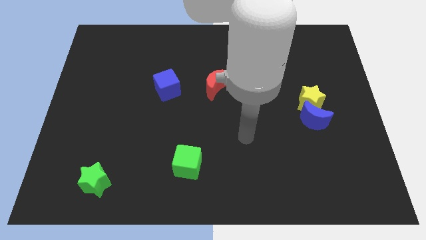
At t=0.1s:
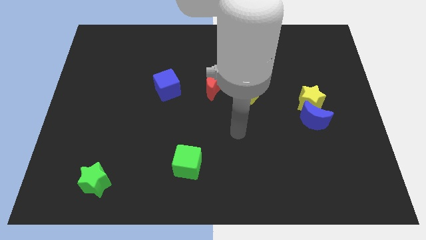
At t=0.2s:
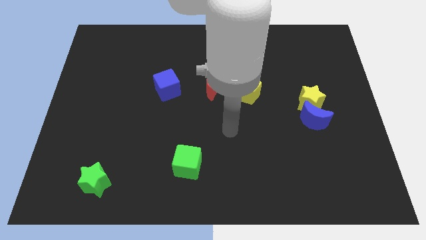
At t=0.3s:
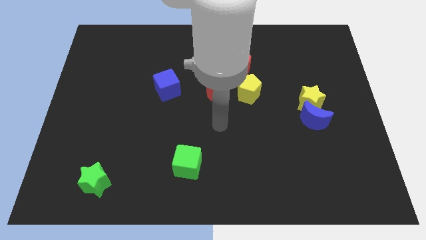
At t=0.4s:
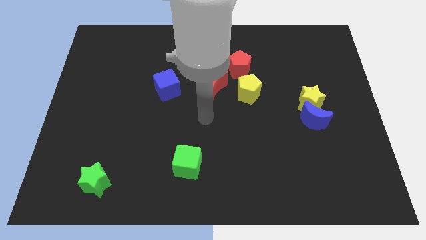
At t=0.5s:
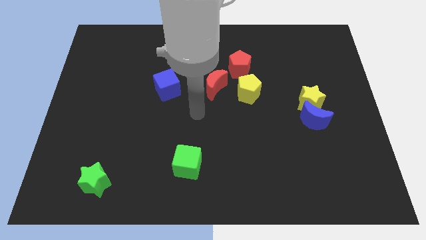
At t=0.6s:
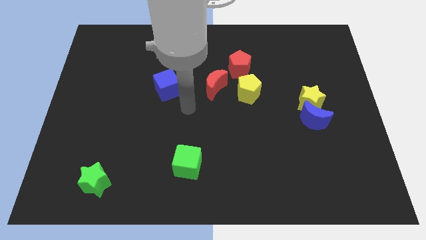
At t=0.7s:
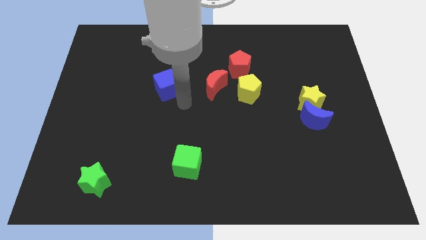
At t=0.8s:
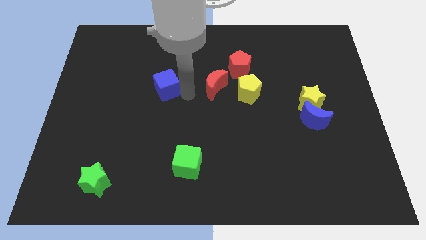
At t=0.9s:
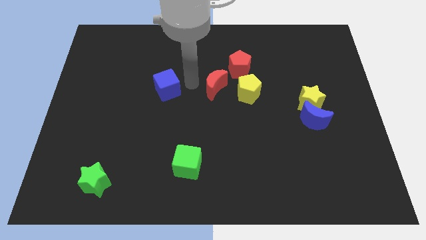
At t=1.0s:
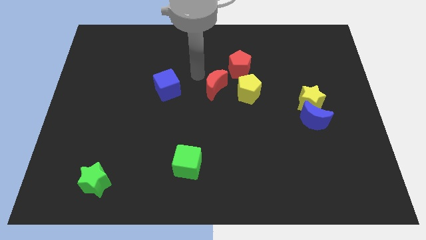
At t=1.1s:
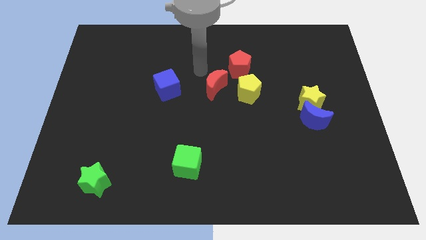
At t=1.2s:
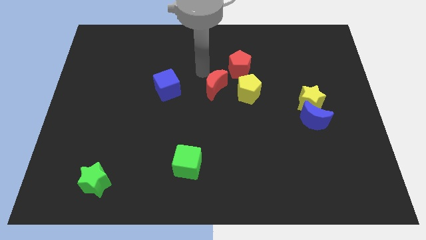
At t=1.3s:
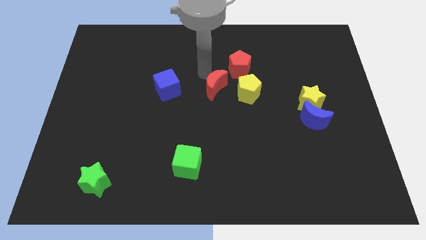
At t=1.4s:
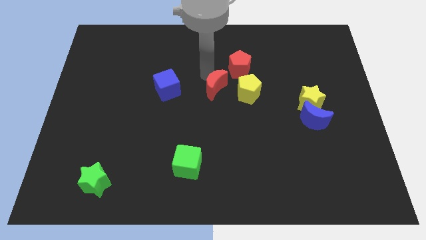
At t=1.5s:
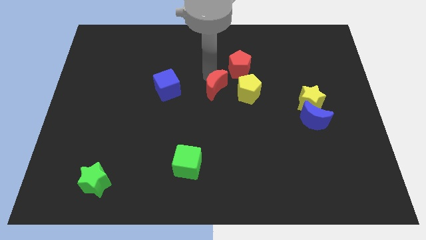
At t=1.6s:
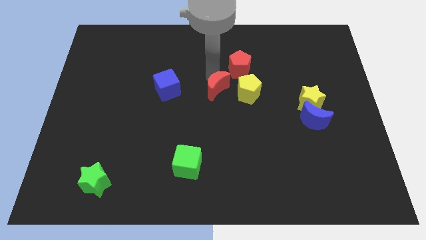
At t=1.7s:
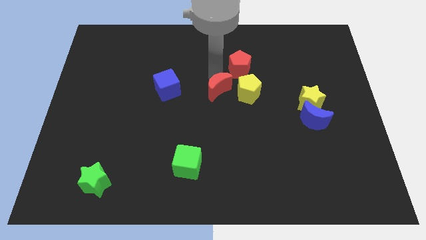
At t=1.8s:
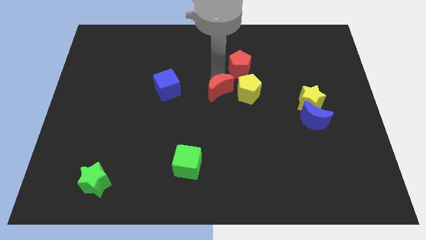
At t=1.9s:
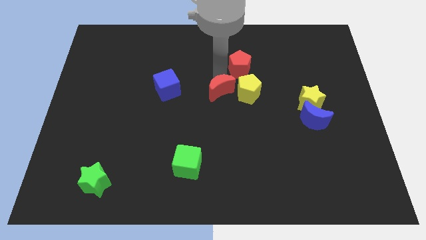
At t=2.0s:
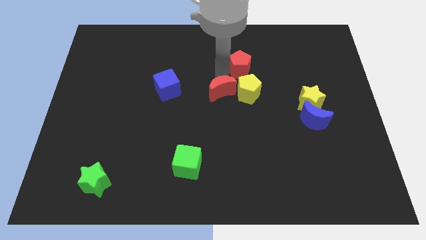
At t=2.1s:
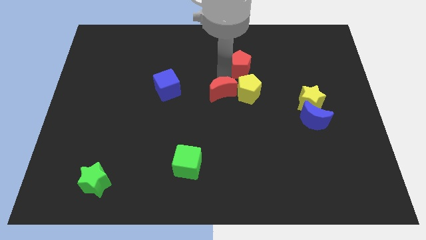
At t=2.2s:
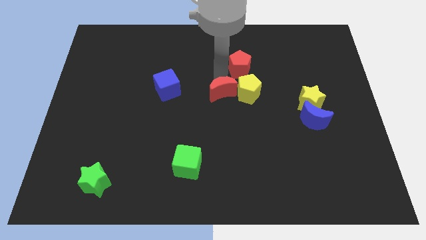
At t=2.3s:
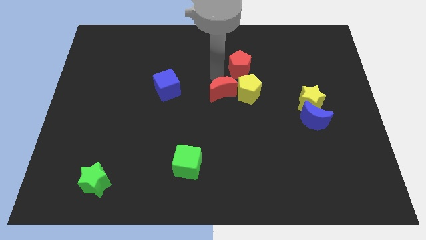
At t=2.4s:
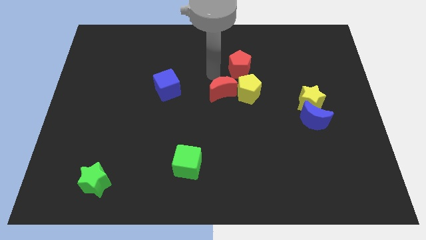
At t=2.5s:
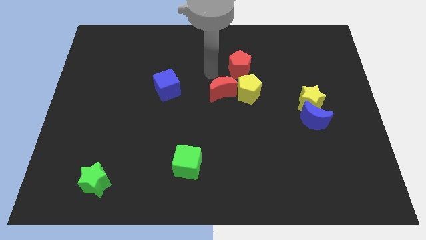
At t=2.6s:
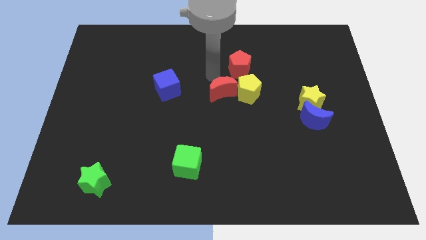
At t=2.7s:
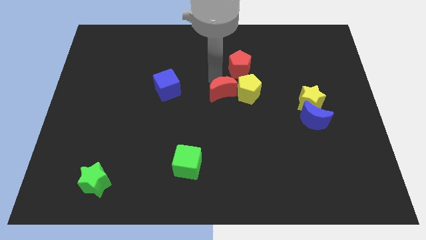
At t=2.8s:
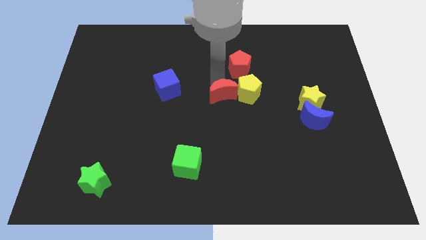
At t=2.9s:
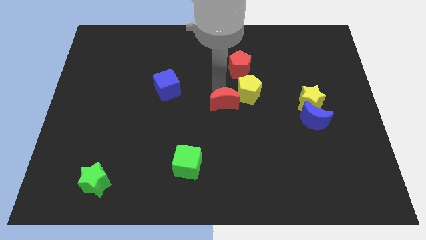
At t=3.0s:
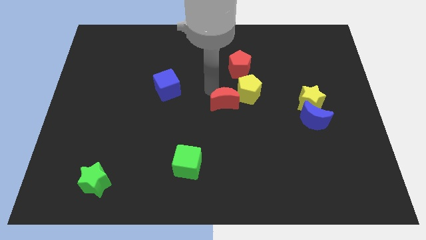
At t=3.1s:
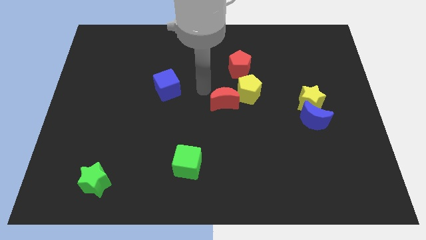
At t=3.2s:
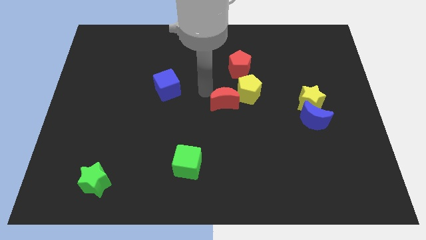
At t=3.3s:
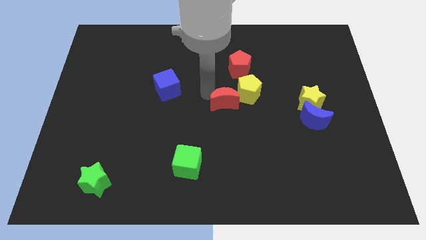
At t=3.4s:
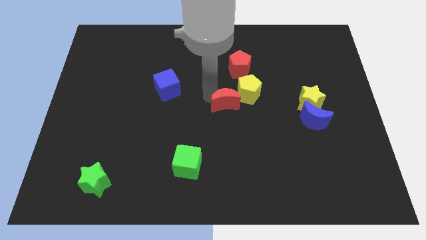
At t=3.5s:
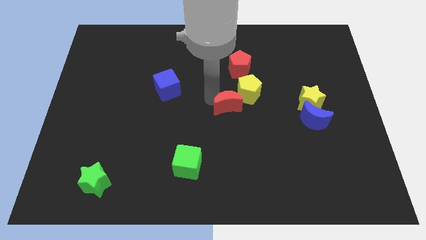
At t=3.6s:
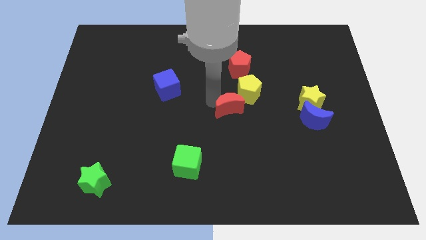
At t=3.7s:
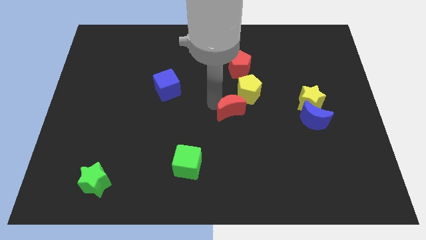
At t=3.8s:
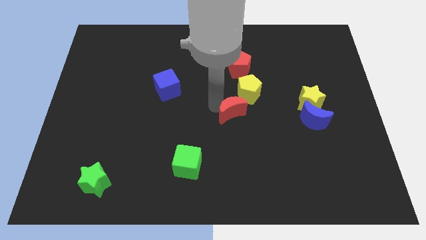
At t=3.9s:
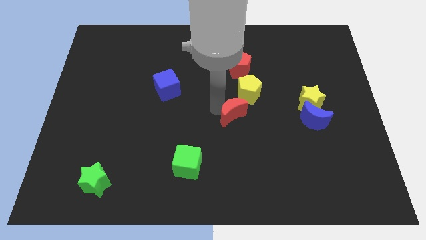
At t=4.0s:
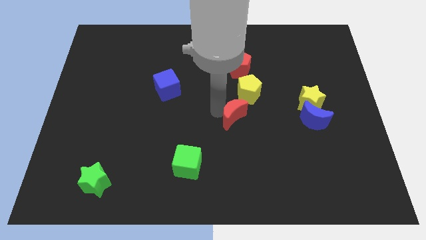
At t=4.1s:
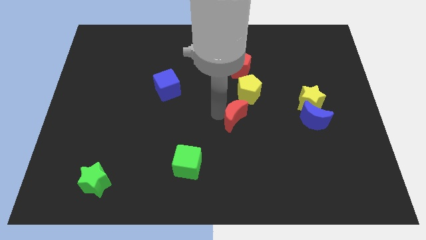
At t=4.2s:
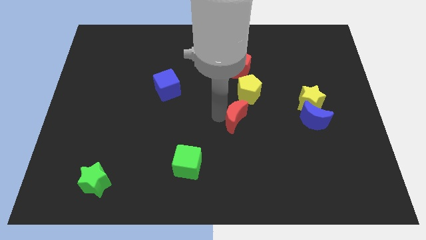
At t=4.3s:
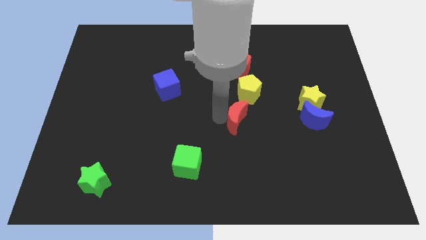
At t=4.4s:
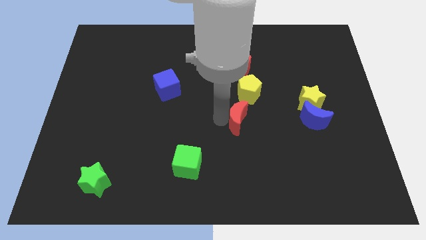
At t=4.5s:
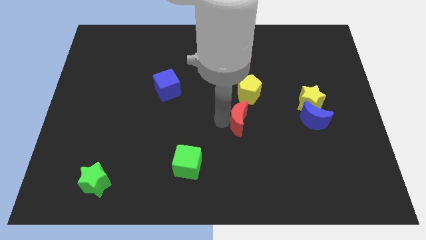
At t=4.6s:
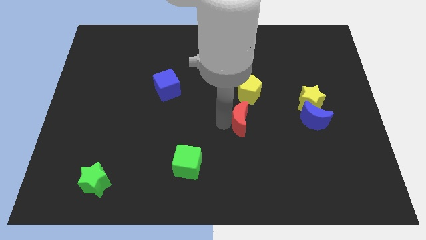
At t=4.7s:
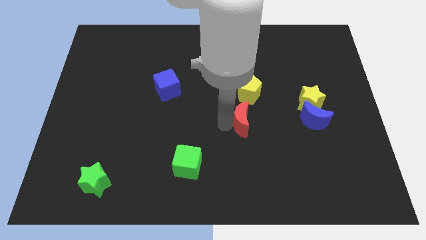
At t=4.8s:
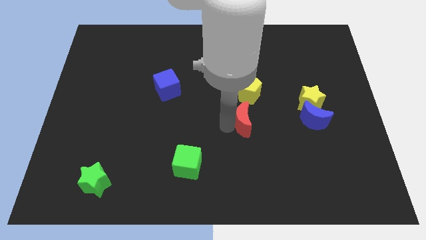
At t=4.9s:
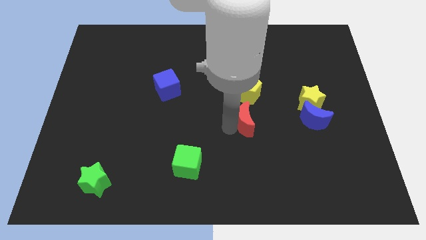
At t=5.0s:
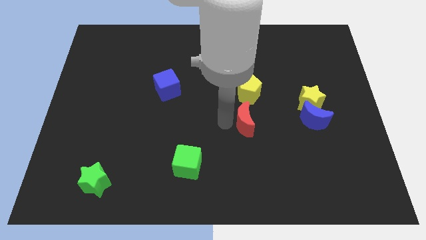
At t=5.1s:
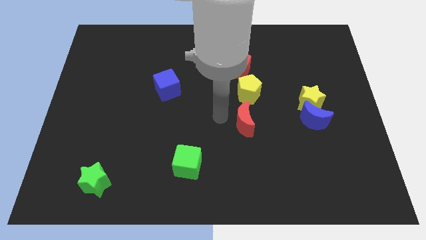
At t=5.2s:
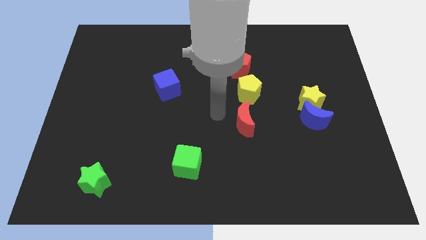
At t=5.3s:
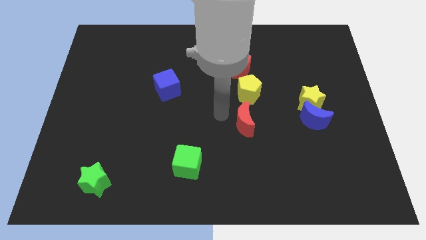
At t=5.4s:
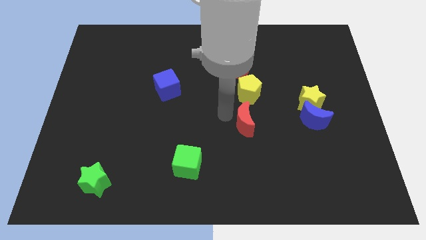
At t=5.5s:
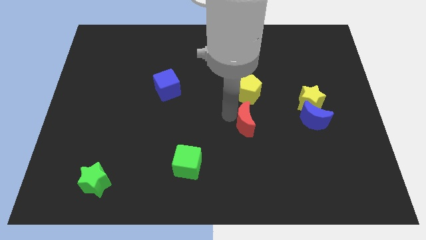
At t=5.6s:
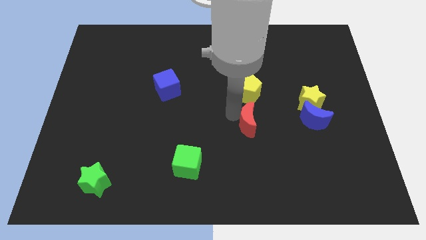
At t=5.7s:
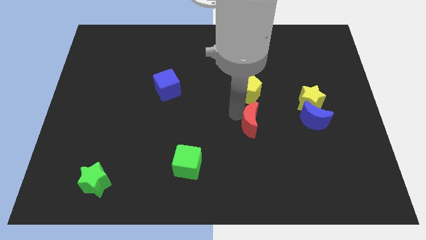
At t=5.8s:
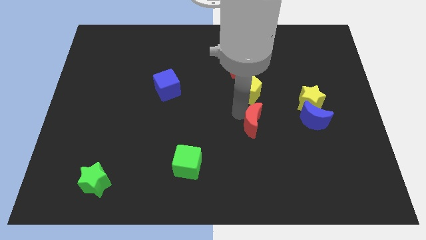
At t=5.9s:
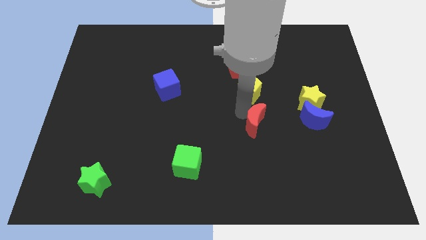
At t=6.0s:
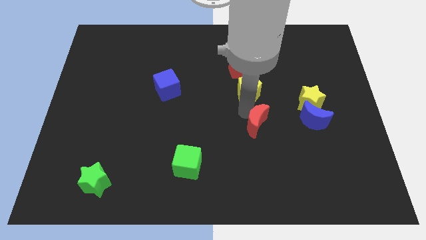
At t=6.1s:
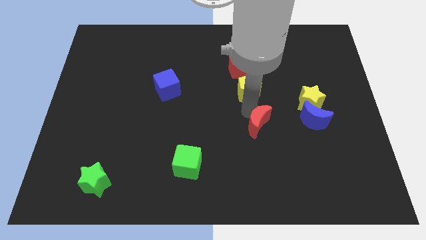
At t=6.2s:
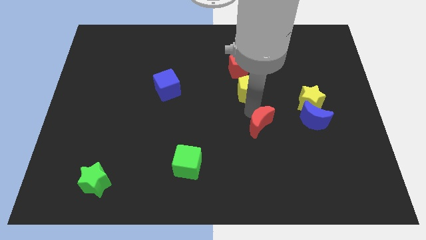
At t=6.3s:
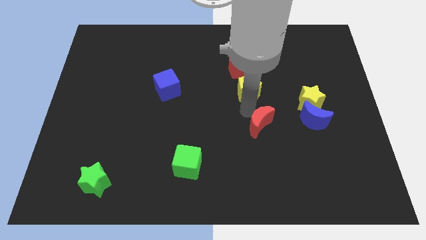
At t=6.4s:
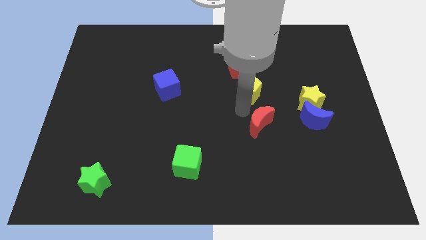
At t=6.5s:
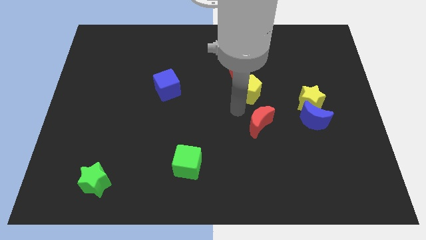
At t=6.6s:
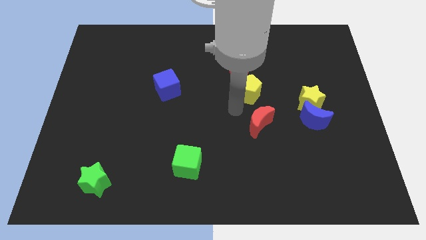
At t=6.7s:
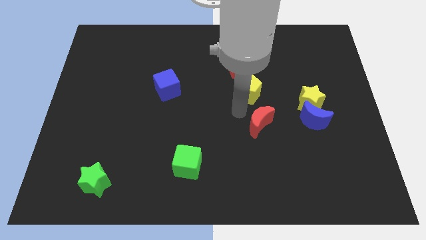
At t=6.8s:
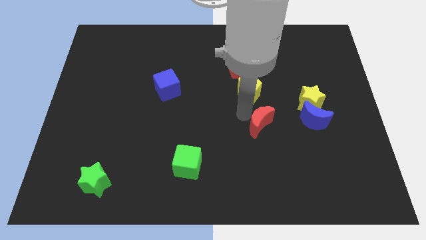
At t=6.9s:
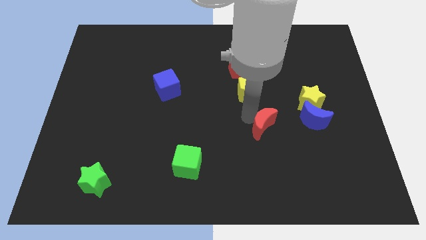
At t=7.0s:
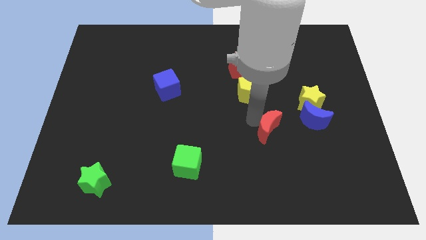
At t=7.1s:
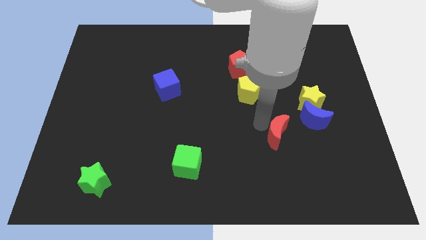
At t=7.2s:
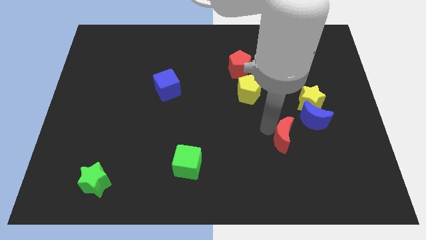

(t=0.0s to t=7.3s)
move the red moon diagonally downwards and to the right

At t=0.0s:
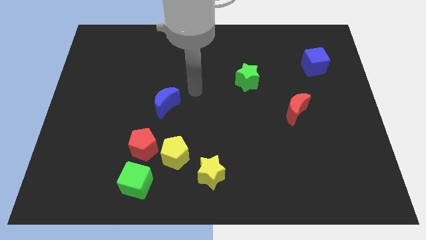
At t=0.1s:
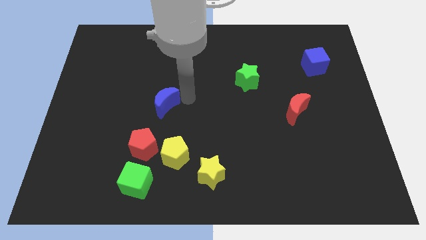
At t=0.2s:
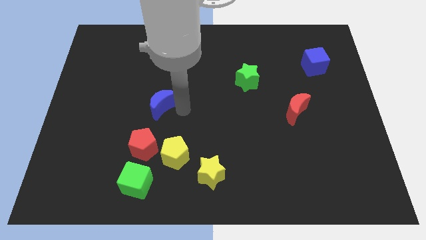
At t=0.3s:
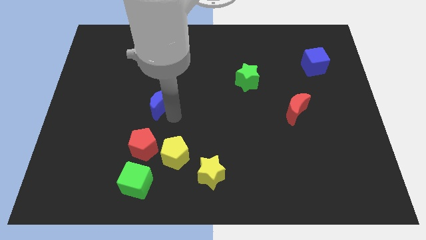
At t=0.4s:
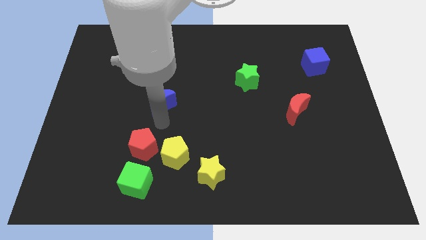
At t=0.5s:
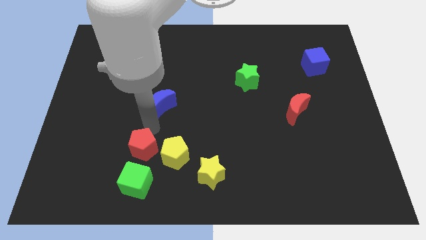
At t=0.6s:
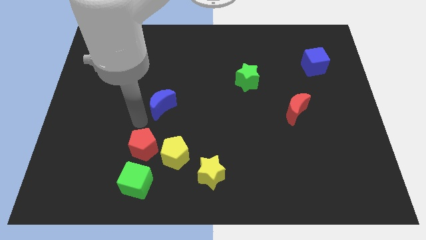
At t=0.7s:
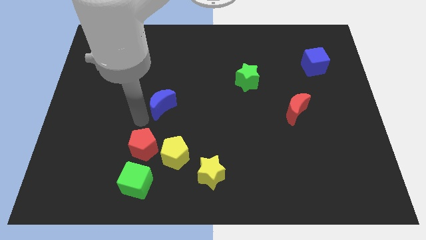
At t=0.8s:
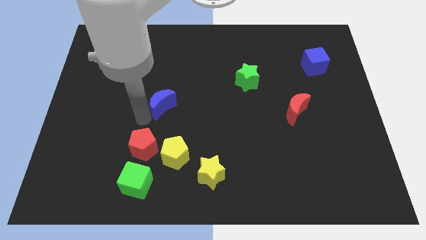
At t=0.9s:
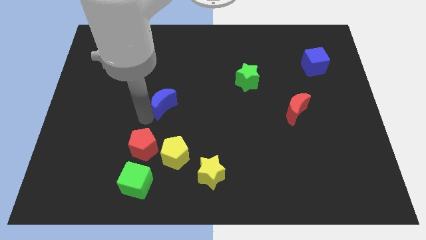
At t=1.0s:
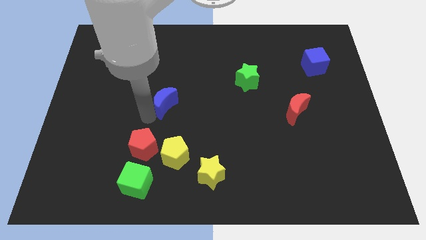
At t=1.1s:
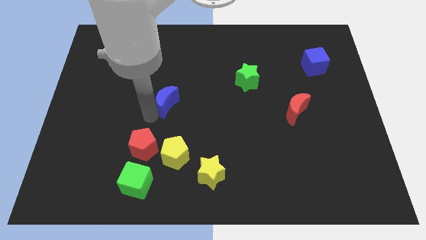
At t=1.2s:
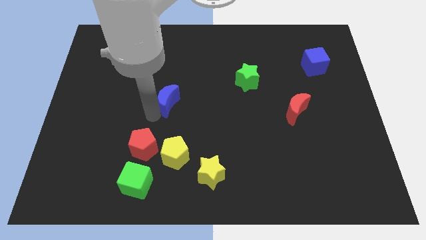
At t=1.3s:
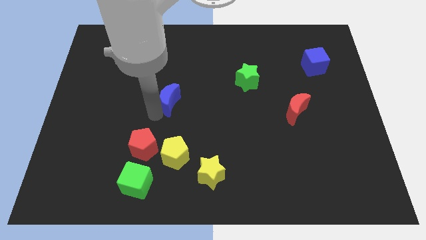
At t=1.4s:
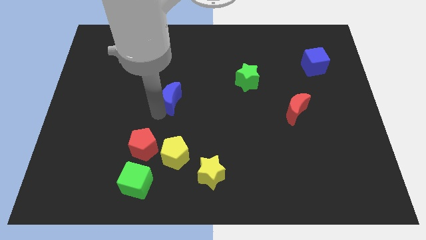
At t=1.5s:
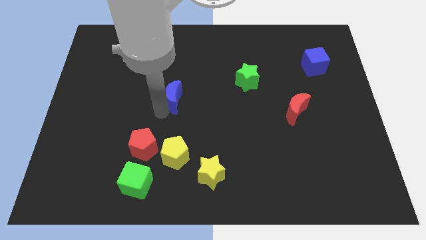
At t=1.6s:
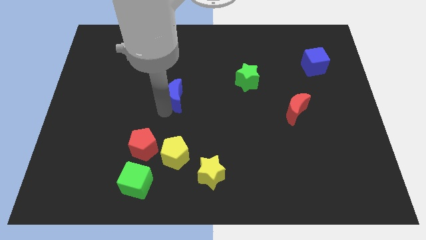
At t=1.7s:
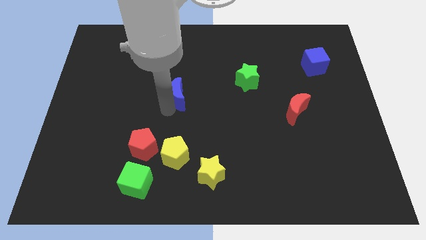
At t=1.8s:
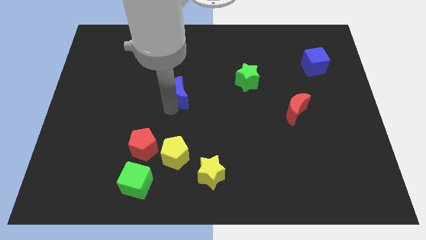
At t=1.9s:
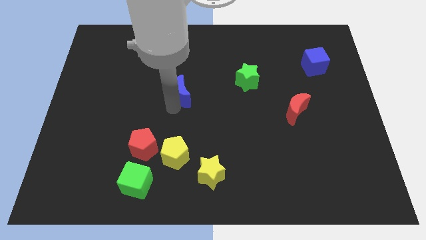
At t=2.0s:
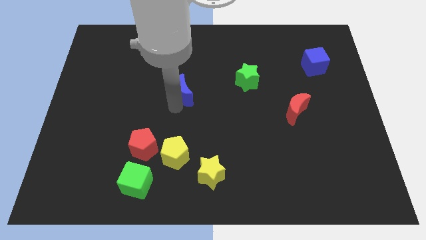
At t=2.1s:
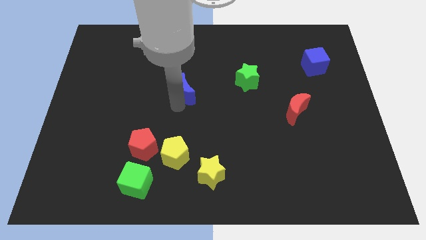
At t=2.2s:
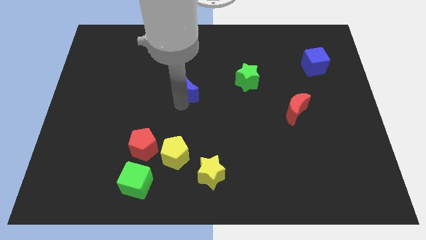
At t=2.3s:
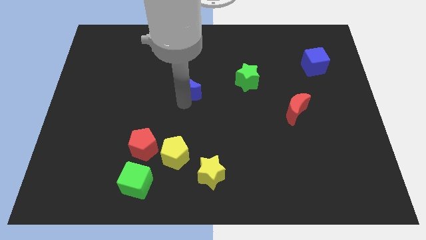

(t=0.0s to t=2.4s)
push the blue moon upwards and to the right somewhat
